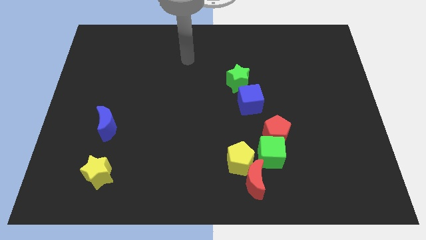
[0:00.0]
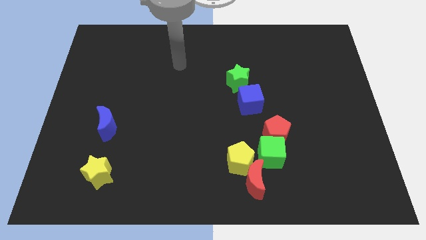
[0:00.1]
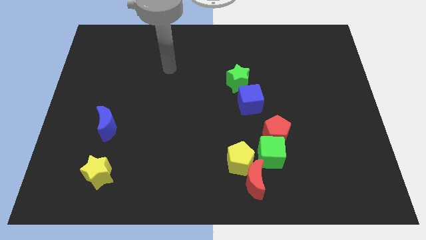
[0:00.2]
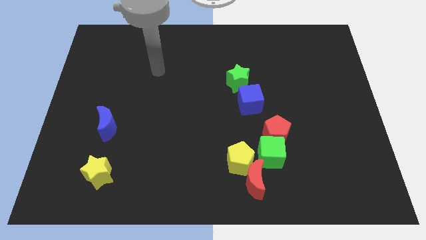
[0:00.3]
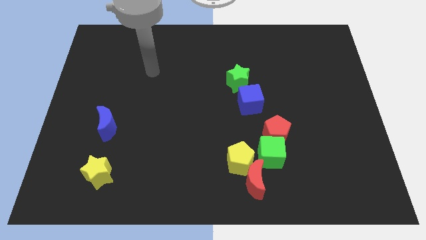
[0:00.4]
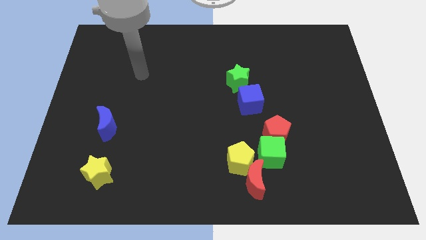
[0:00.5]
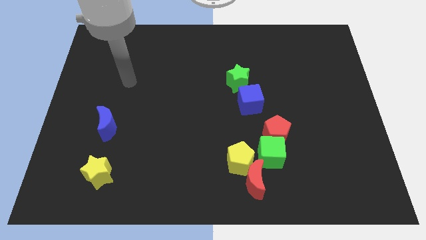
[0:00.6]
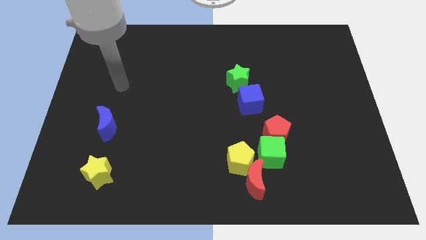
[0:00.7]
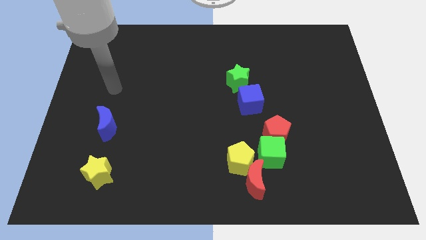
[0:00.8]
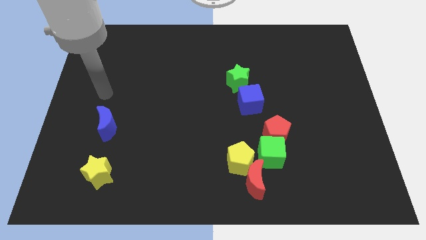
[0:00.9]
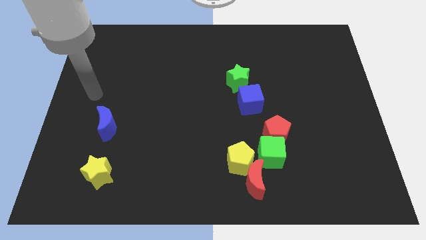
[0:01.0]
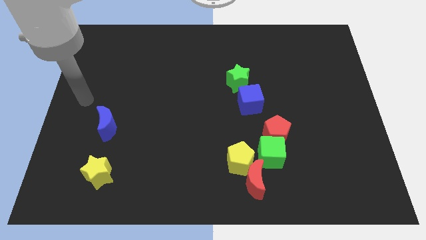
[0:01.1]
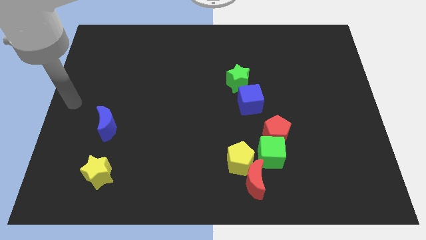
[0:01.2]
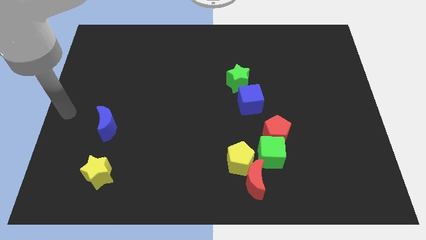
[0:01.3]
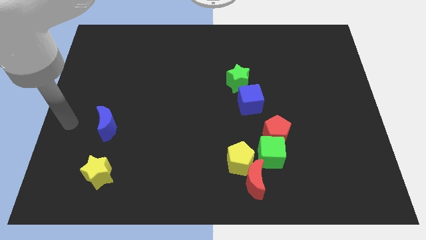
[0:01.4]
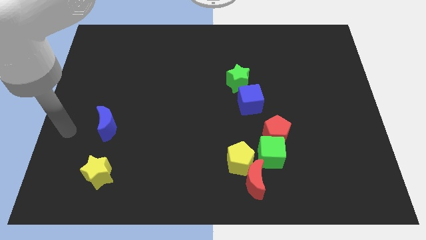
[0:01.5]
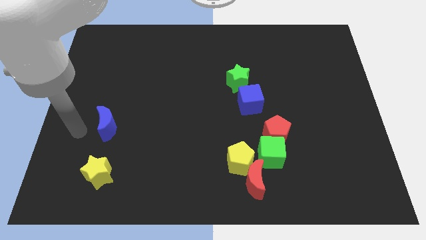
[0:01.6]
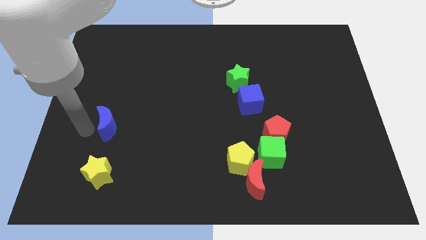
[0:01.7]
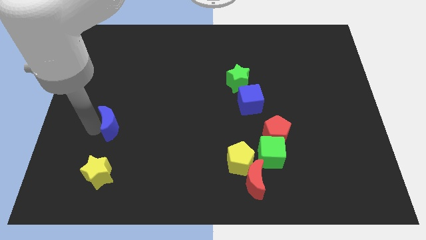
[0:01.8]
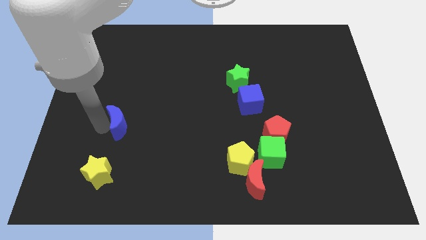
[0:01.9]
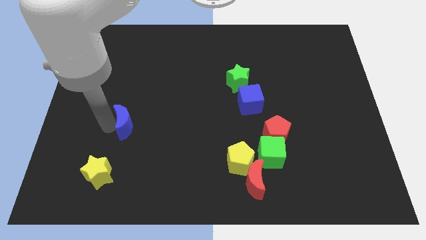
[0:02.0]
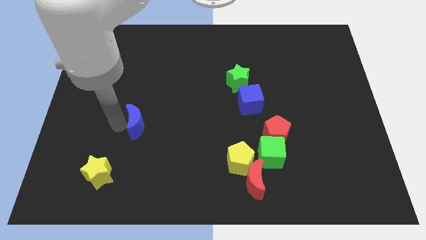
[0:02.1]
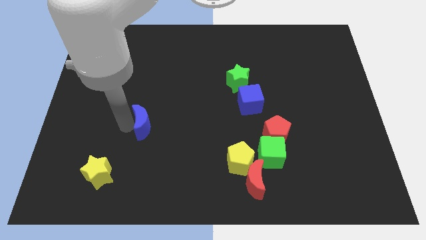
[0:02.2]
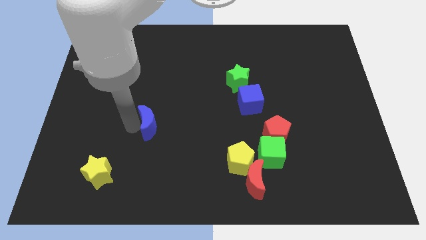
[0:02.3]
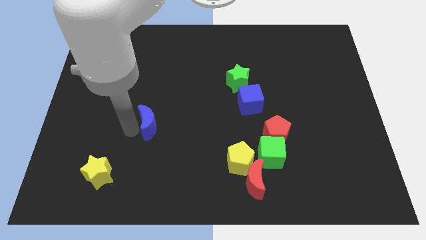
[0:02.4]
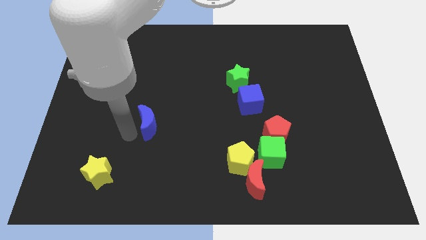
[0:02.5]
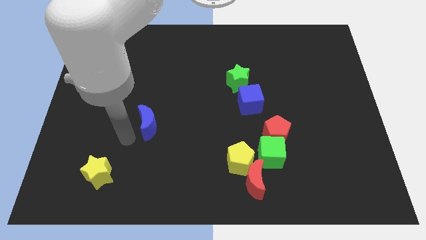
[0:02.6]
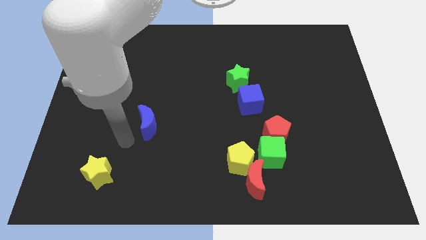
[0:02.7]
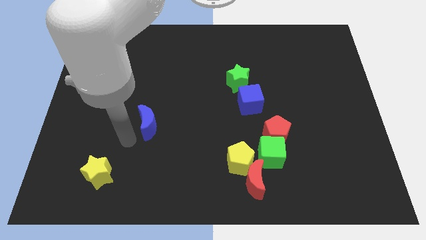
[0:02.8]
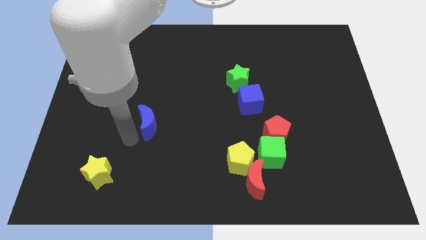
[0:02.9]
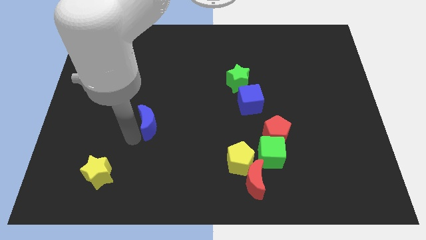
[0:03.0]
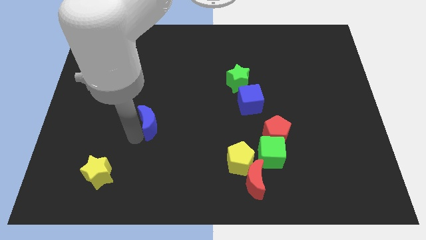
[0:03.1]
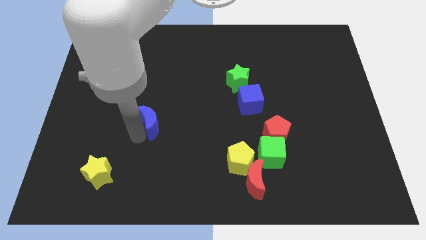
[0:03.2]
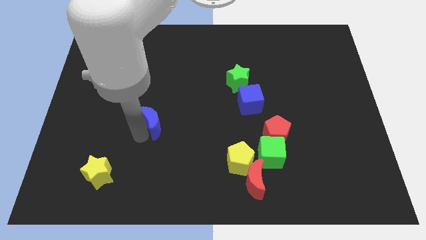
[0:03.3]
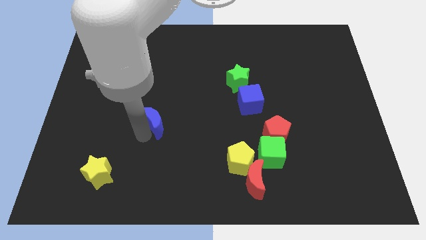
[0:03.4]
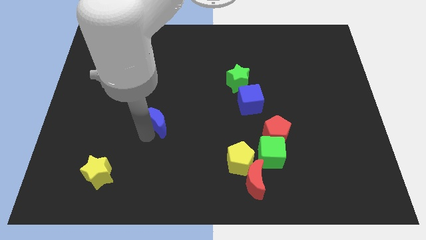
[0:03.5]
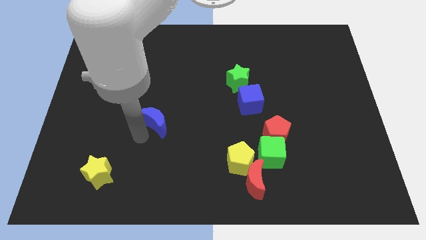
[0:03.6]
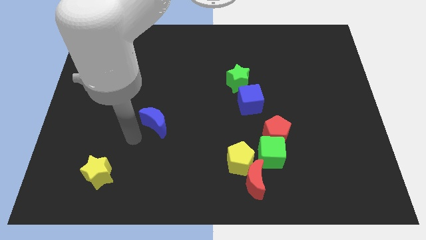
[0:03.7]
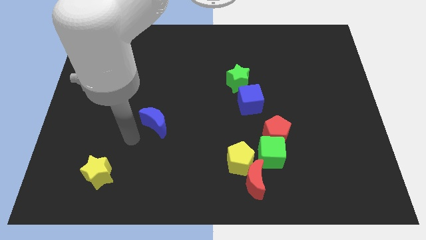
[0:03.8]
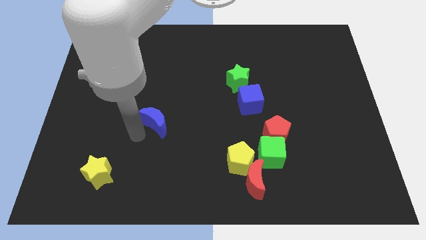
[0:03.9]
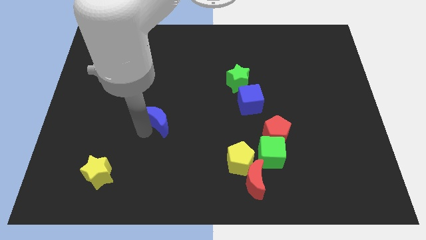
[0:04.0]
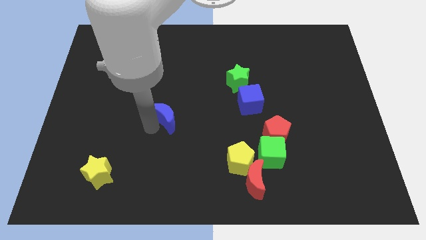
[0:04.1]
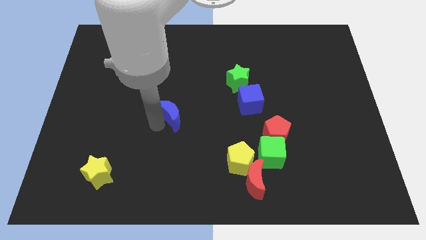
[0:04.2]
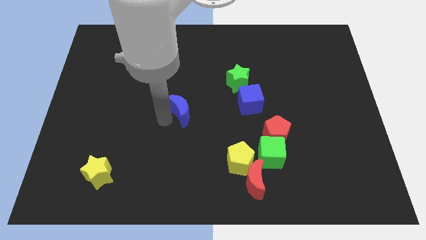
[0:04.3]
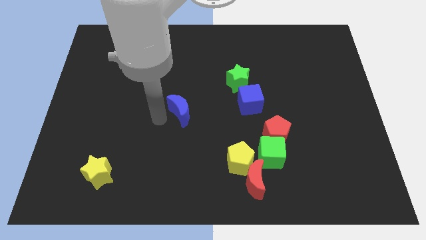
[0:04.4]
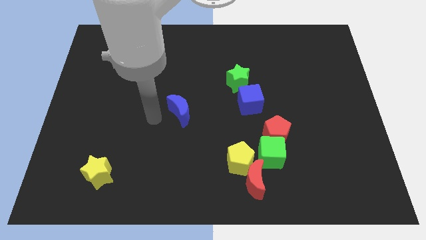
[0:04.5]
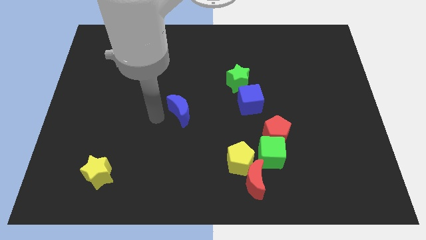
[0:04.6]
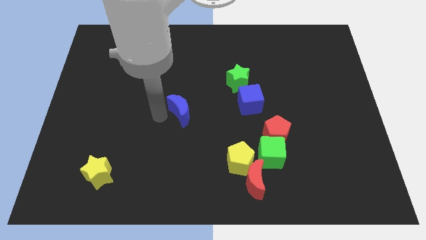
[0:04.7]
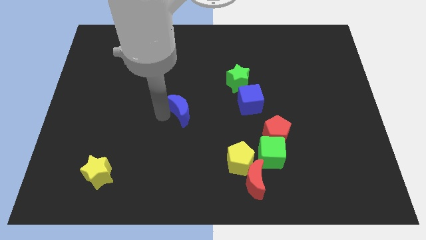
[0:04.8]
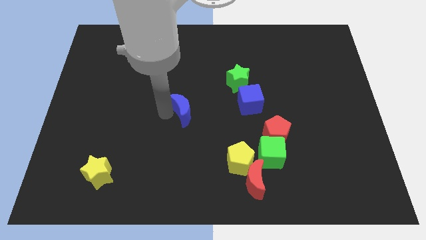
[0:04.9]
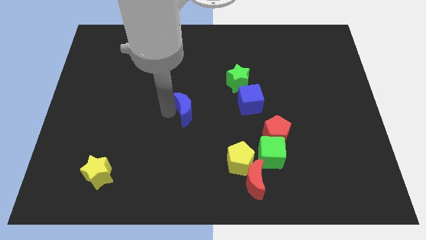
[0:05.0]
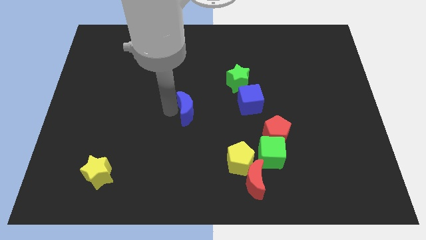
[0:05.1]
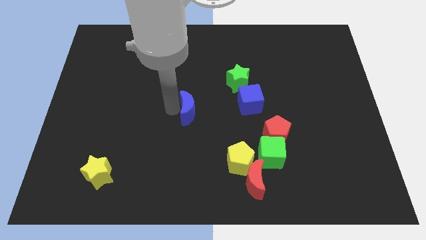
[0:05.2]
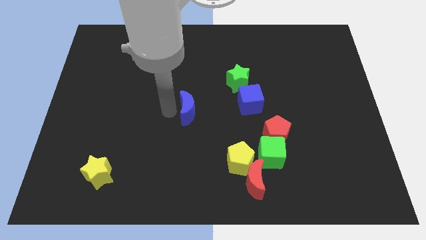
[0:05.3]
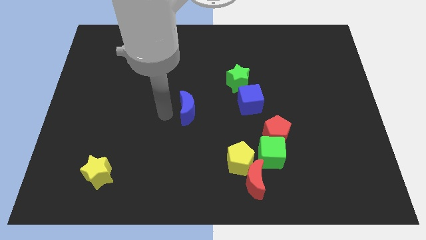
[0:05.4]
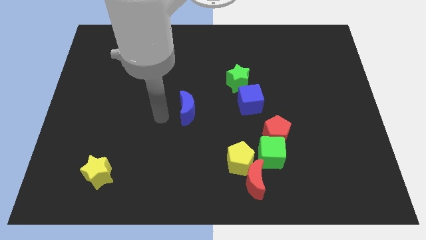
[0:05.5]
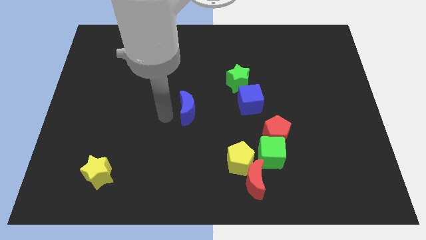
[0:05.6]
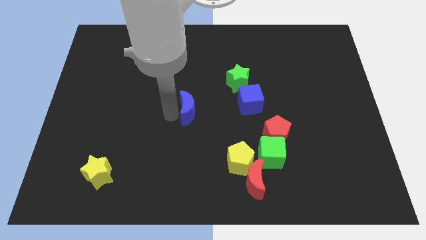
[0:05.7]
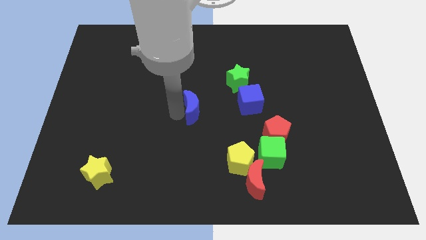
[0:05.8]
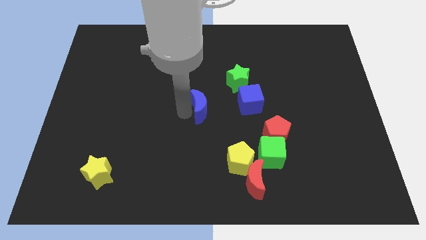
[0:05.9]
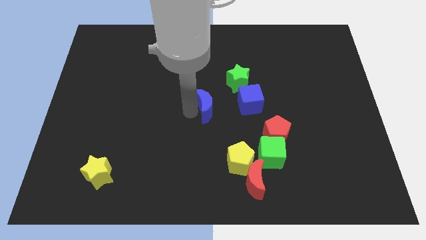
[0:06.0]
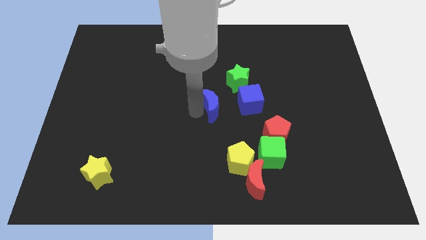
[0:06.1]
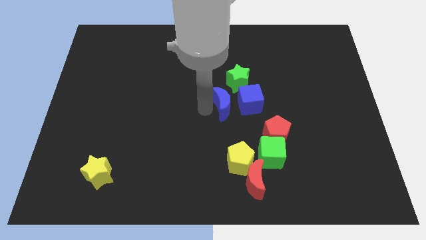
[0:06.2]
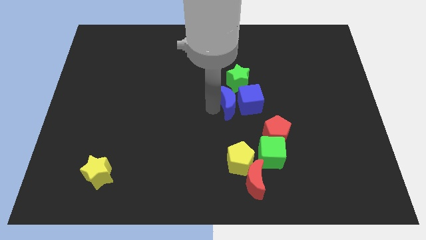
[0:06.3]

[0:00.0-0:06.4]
move the blue moon close to the blue cube
